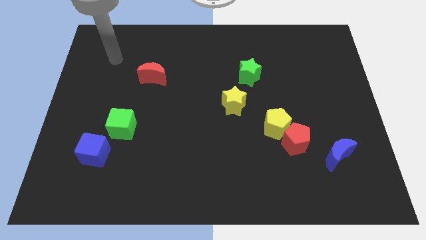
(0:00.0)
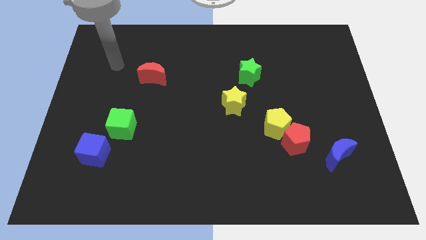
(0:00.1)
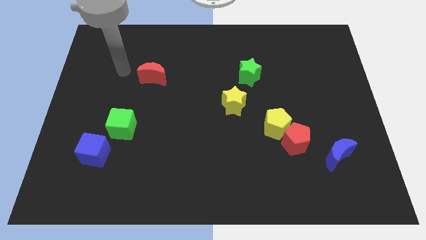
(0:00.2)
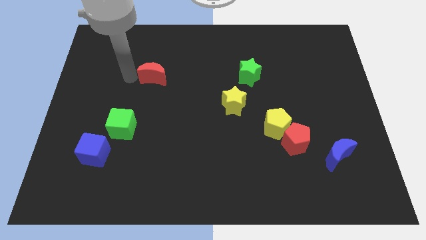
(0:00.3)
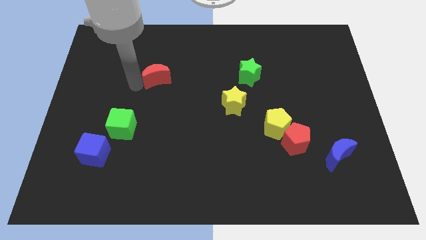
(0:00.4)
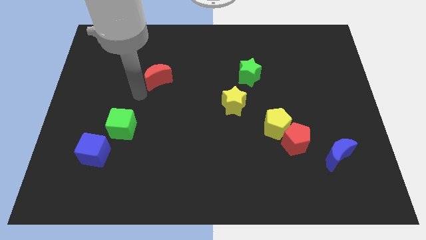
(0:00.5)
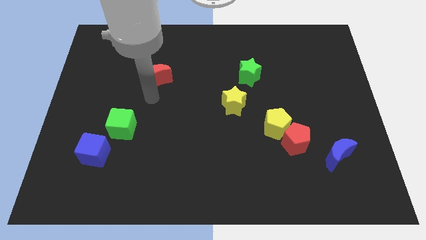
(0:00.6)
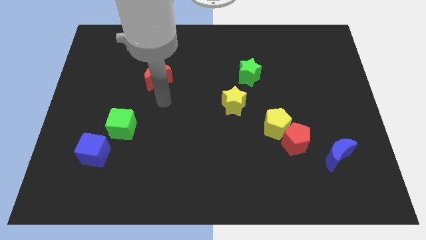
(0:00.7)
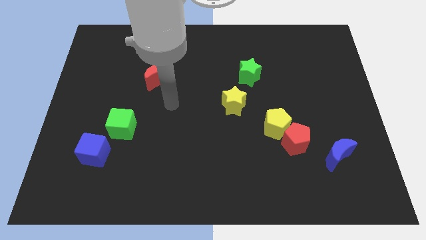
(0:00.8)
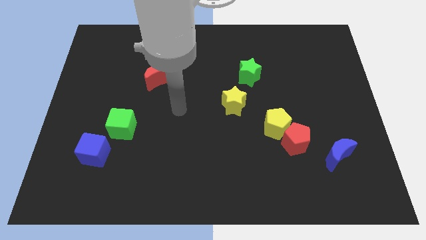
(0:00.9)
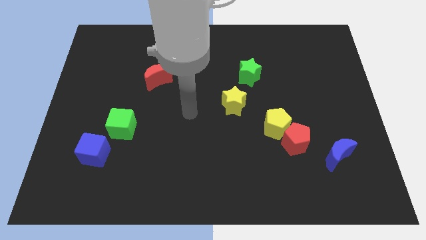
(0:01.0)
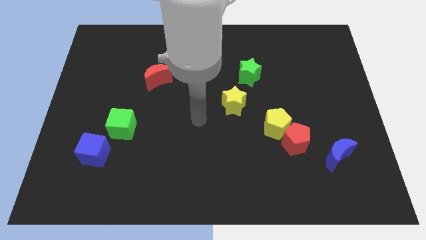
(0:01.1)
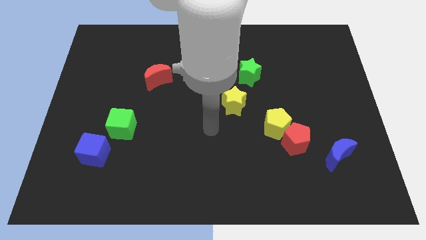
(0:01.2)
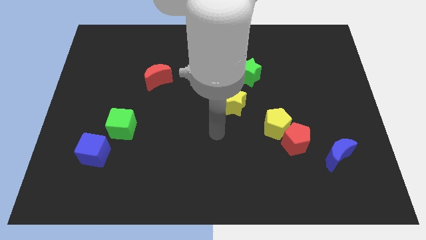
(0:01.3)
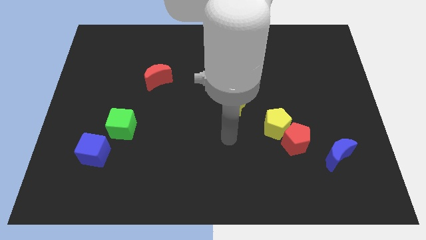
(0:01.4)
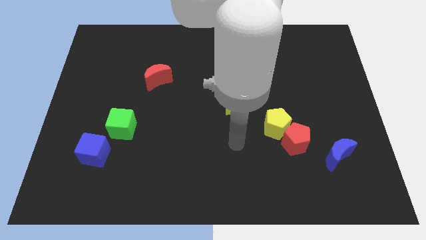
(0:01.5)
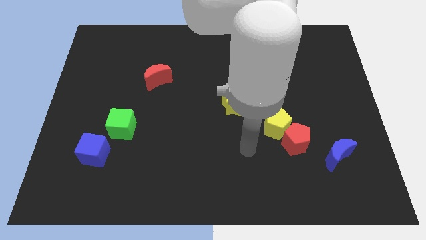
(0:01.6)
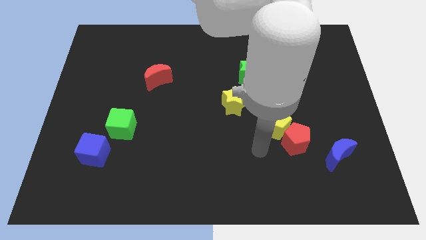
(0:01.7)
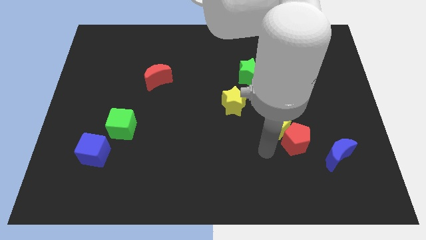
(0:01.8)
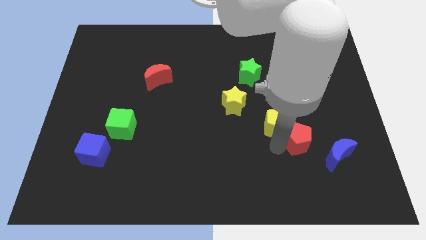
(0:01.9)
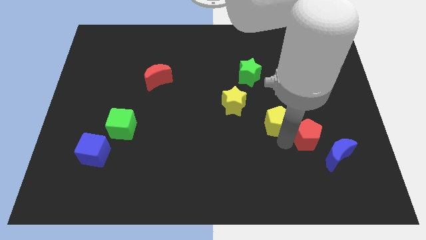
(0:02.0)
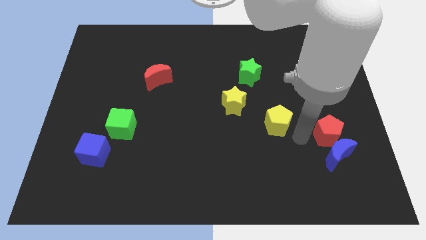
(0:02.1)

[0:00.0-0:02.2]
pull the yellow pentagon apart from the red pentagon

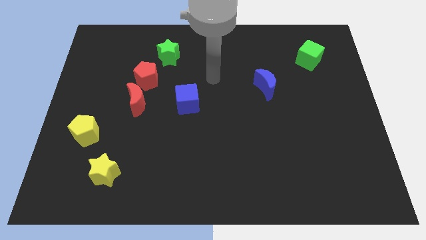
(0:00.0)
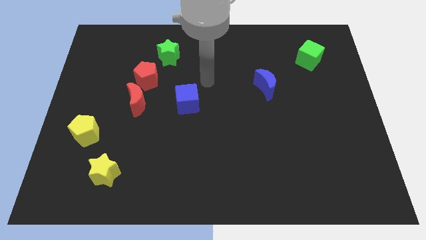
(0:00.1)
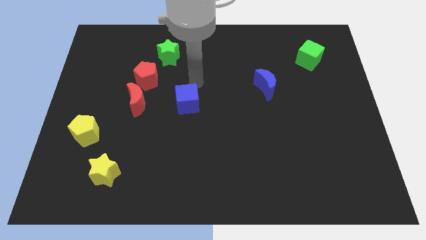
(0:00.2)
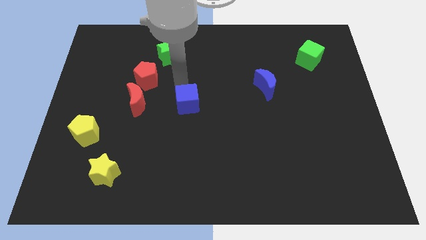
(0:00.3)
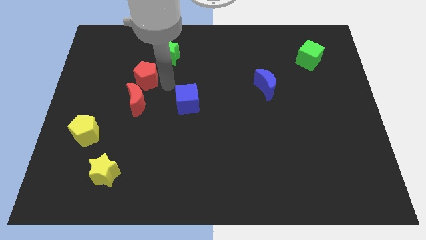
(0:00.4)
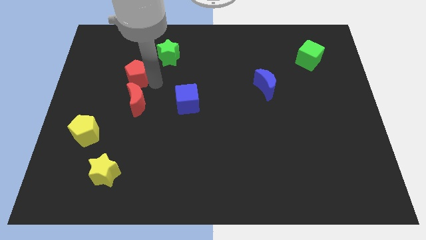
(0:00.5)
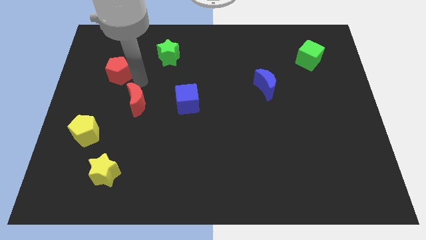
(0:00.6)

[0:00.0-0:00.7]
separate the red moon from the red pentagon

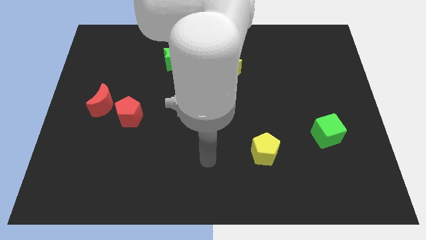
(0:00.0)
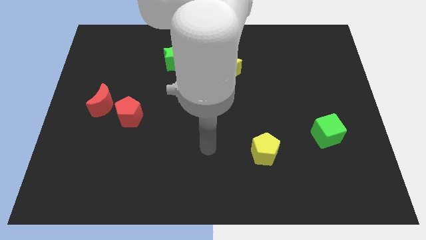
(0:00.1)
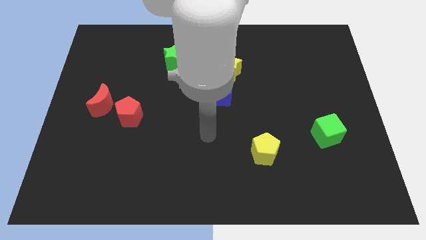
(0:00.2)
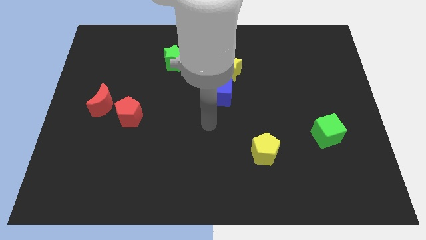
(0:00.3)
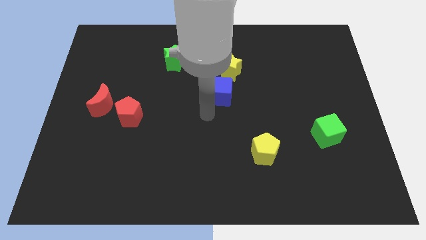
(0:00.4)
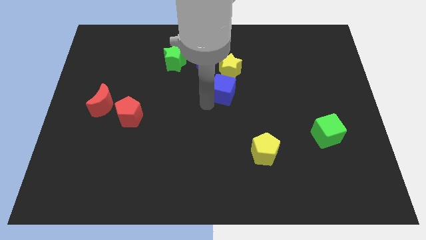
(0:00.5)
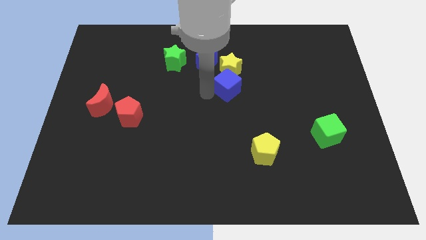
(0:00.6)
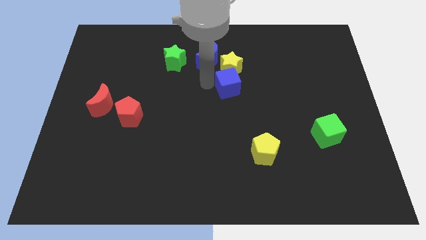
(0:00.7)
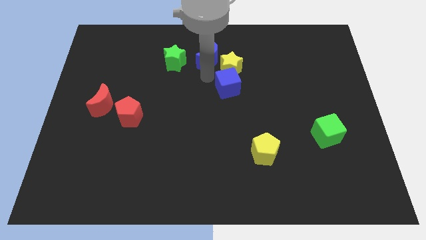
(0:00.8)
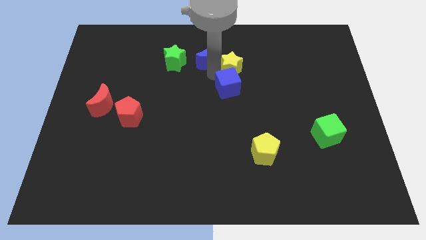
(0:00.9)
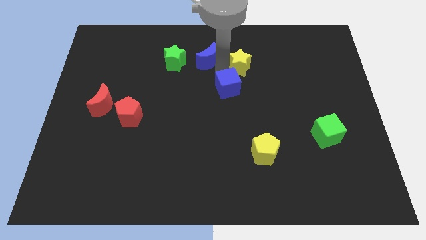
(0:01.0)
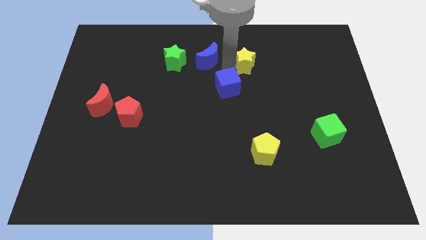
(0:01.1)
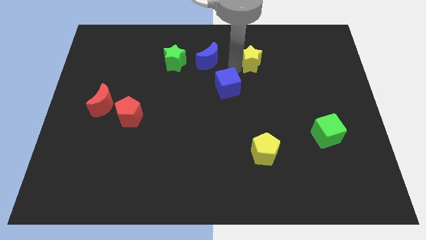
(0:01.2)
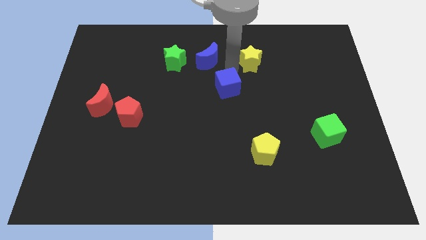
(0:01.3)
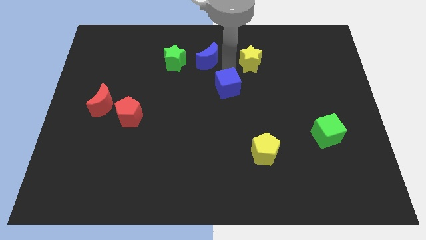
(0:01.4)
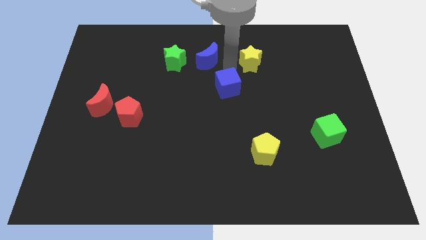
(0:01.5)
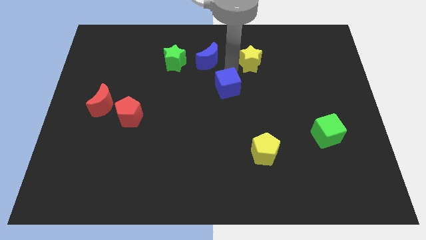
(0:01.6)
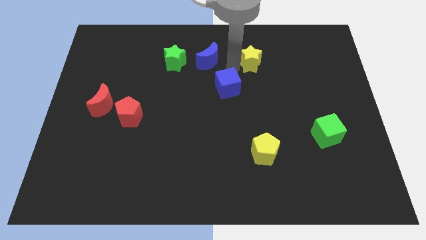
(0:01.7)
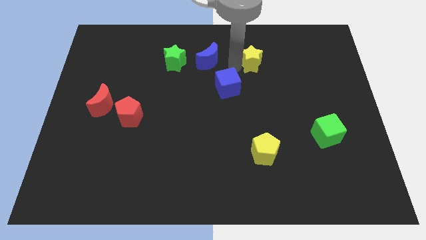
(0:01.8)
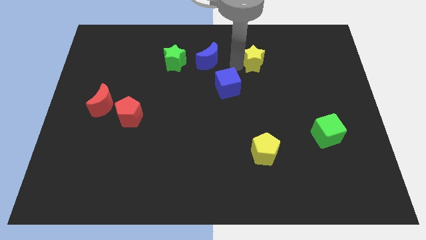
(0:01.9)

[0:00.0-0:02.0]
pull the yellow star apart from the blue moon and blue cube

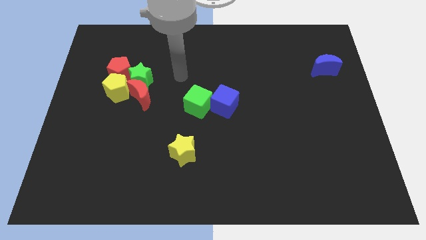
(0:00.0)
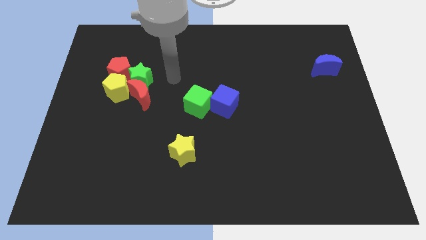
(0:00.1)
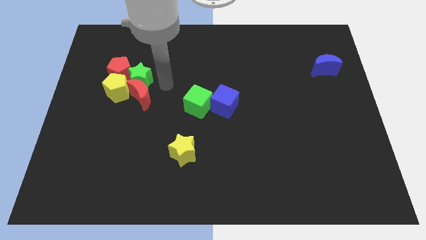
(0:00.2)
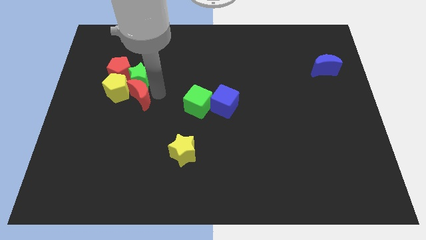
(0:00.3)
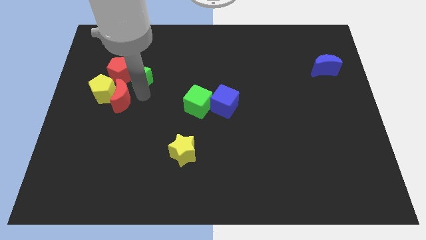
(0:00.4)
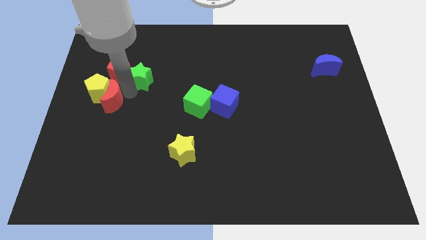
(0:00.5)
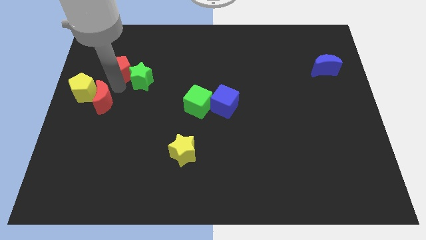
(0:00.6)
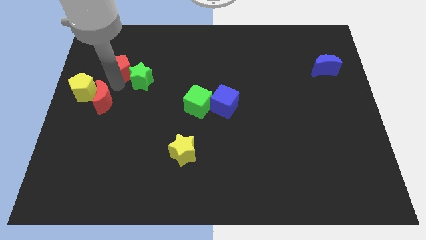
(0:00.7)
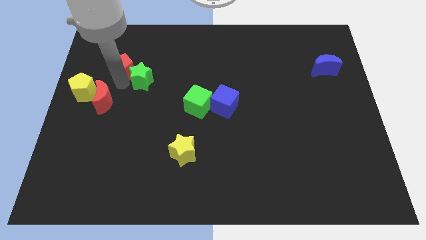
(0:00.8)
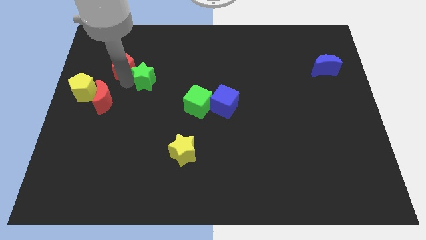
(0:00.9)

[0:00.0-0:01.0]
separate the green star from the red moon, red pentagon, and yellow pentagon

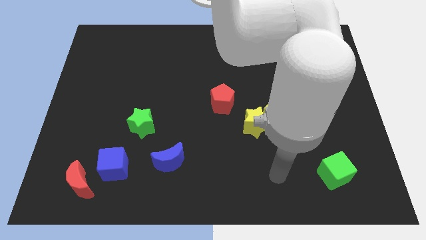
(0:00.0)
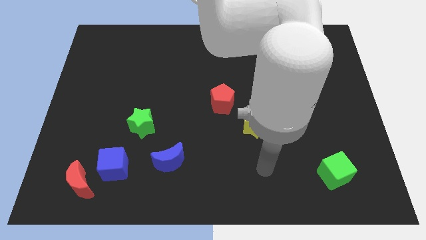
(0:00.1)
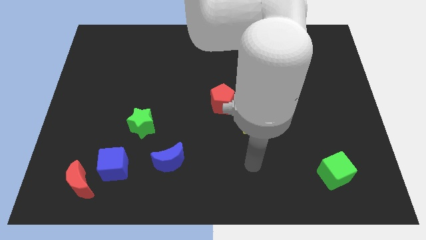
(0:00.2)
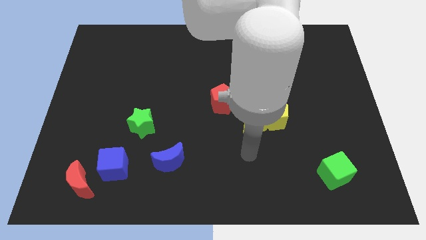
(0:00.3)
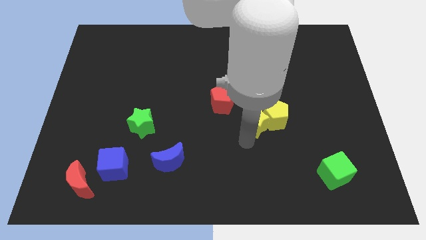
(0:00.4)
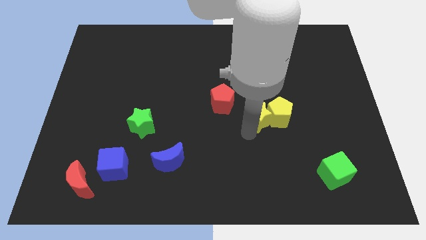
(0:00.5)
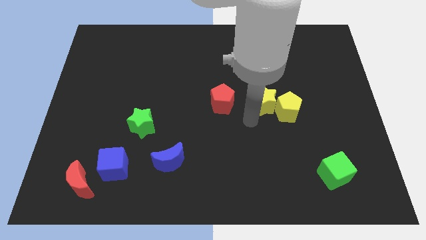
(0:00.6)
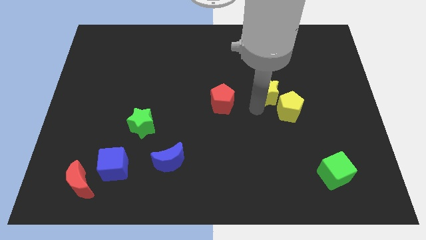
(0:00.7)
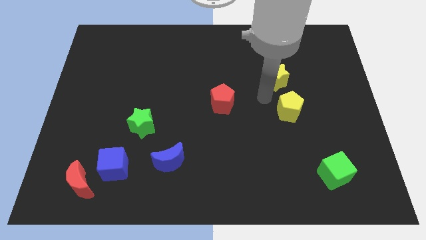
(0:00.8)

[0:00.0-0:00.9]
separate the yellow pentagon from the yellow star

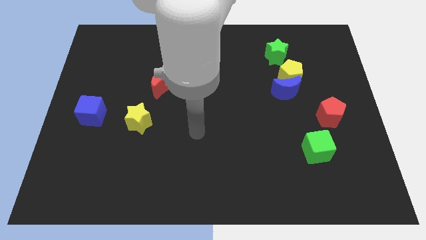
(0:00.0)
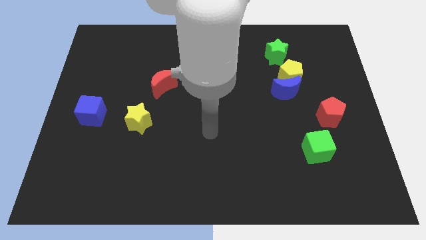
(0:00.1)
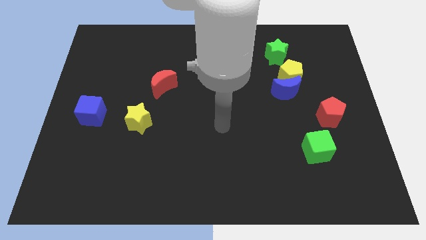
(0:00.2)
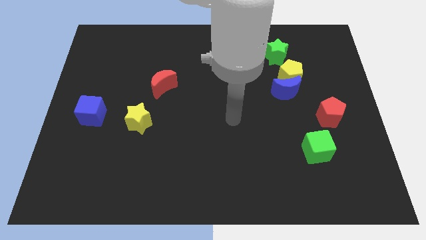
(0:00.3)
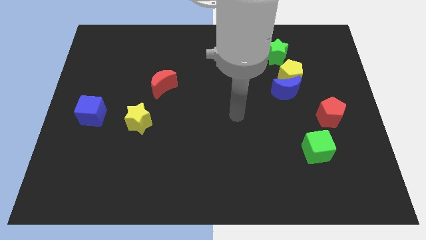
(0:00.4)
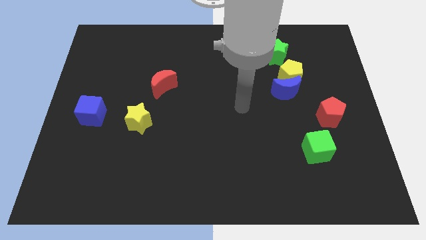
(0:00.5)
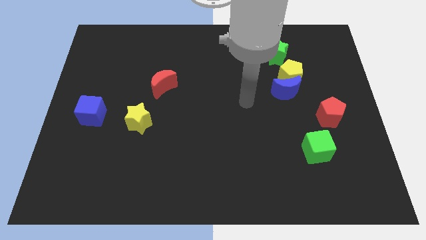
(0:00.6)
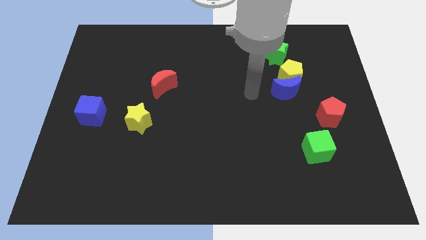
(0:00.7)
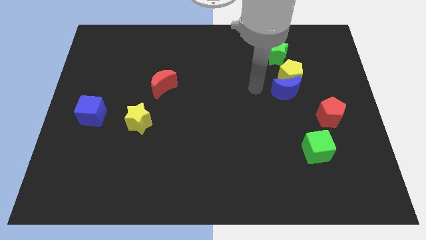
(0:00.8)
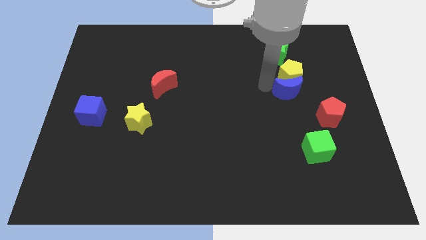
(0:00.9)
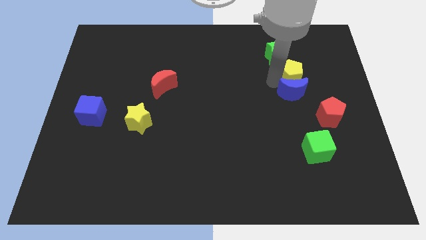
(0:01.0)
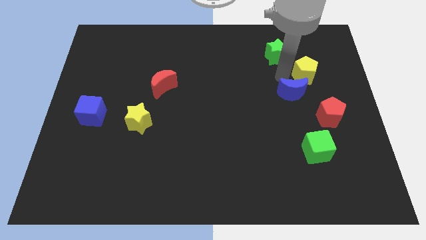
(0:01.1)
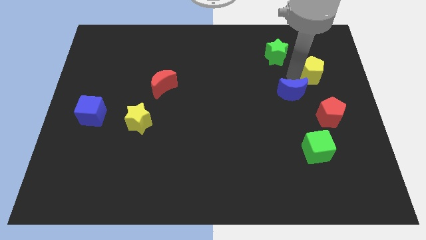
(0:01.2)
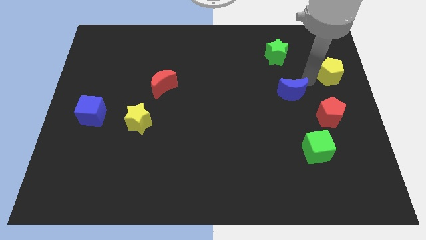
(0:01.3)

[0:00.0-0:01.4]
separate the blue moon from the yellow pentagon

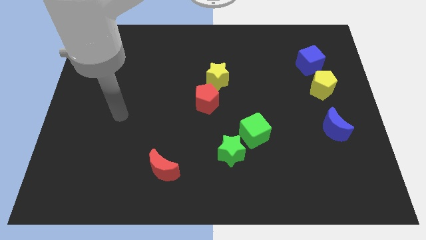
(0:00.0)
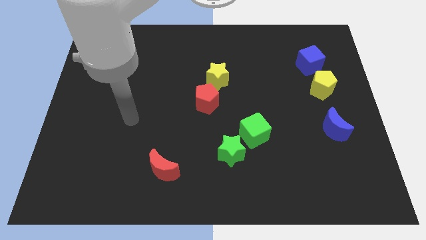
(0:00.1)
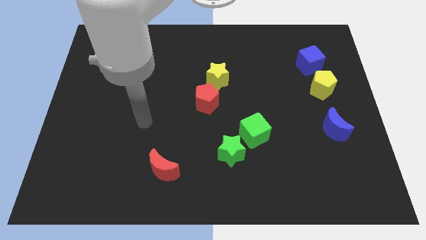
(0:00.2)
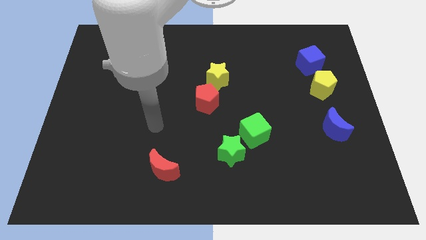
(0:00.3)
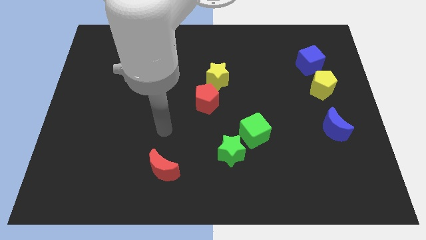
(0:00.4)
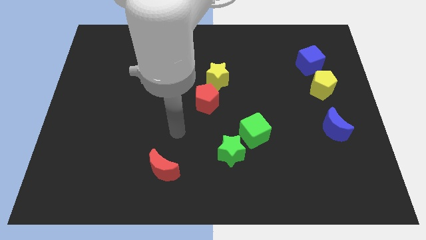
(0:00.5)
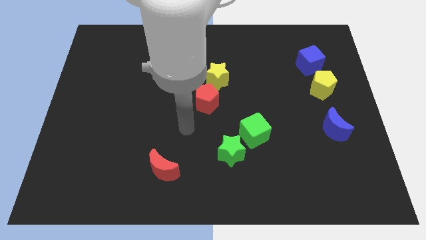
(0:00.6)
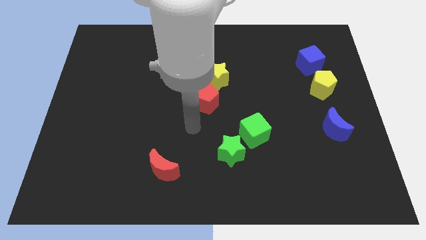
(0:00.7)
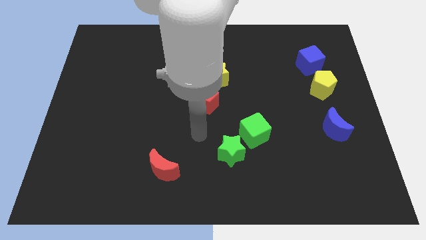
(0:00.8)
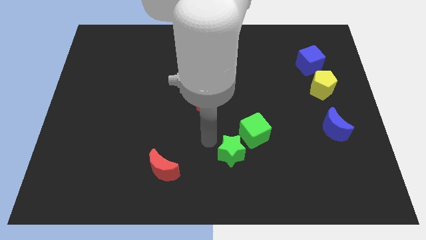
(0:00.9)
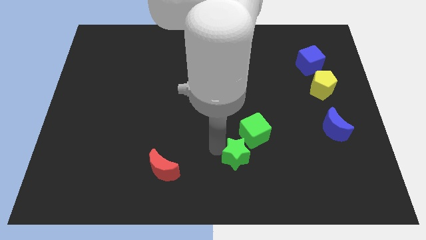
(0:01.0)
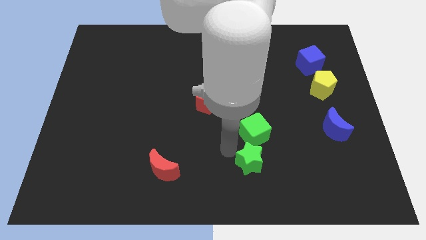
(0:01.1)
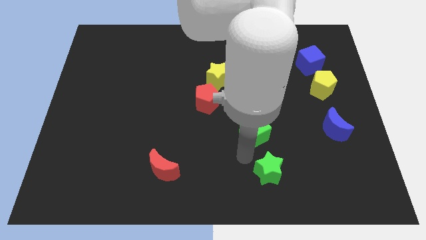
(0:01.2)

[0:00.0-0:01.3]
separate the green cube from the green star
